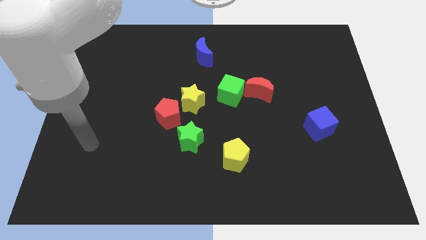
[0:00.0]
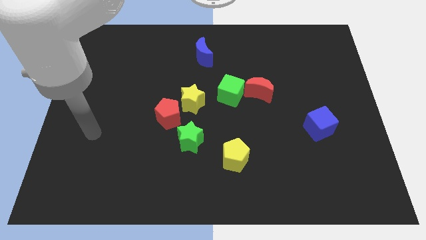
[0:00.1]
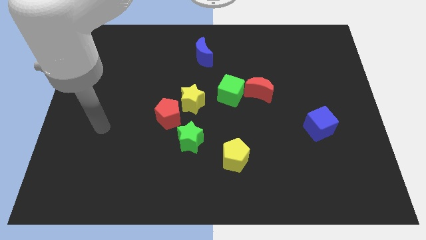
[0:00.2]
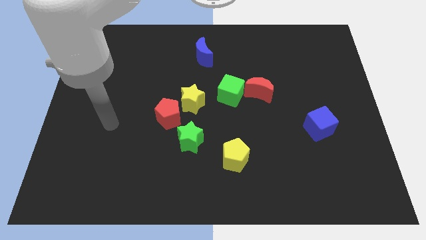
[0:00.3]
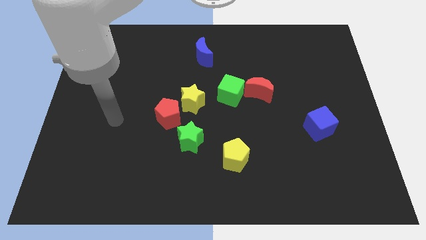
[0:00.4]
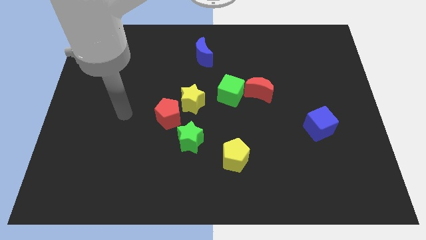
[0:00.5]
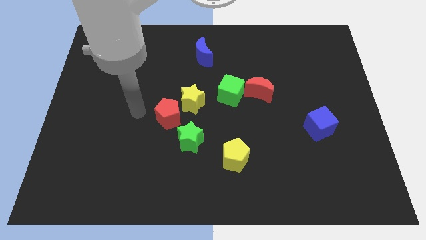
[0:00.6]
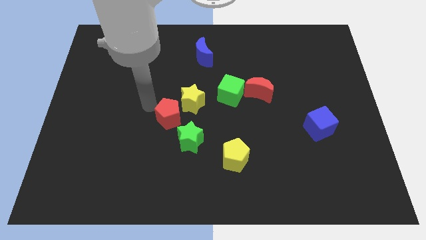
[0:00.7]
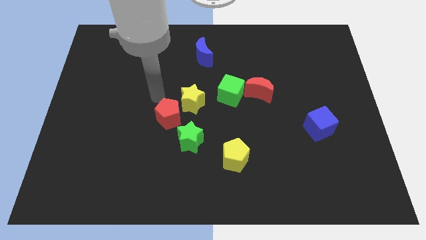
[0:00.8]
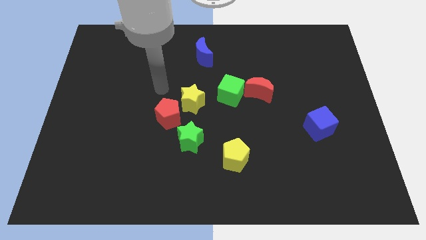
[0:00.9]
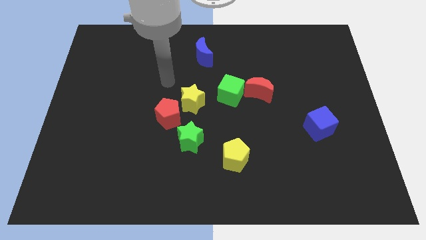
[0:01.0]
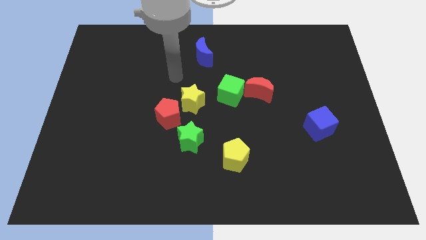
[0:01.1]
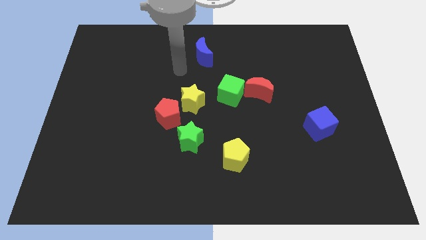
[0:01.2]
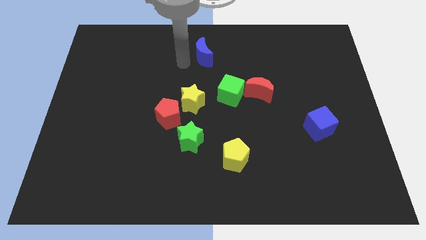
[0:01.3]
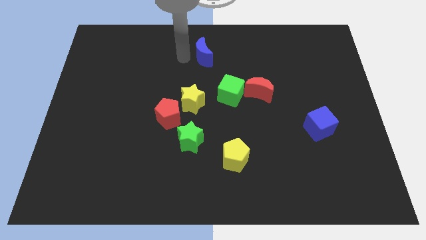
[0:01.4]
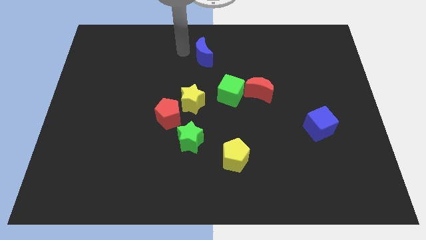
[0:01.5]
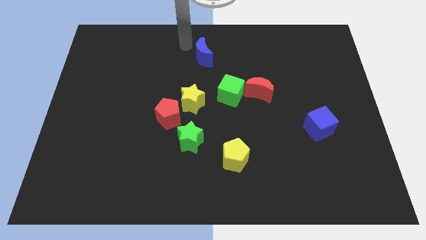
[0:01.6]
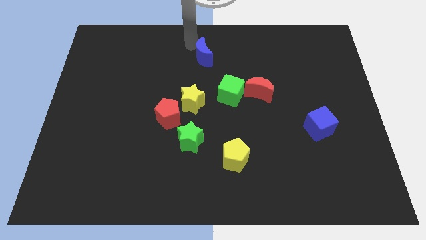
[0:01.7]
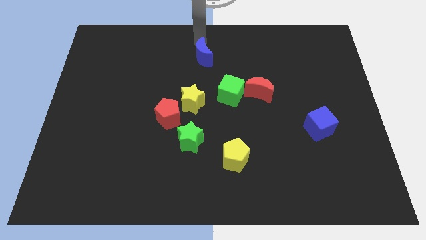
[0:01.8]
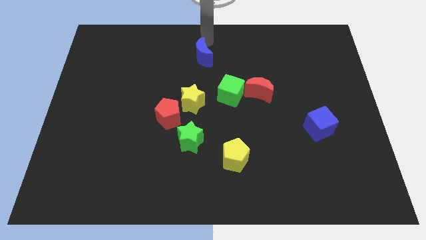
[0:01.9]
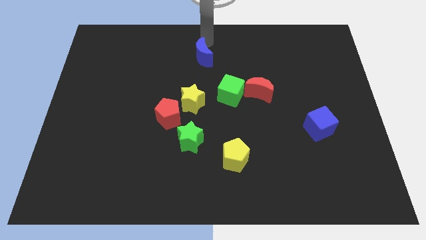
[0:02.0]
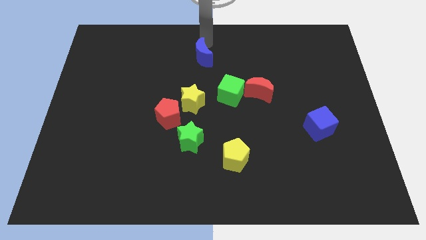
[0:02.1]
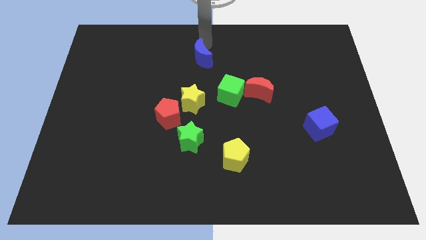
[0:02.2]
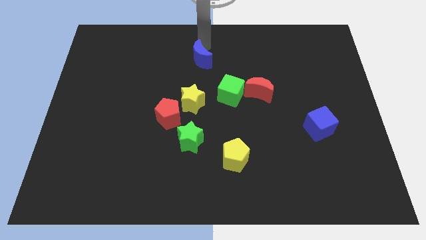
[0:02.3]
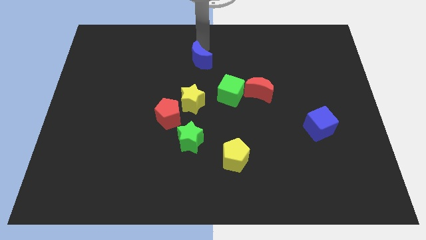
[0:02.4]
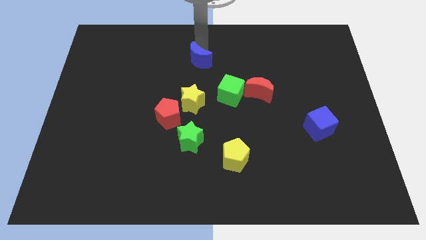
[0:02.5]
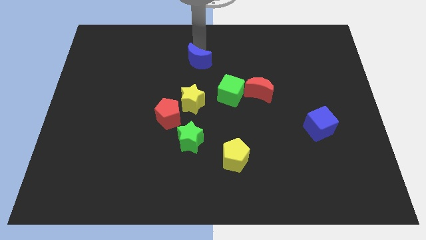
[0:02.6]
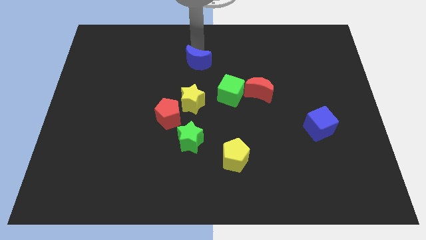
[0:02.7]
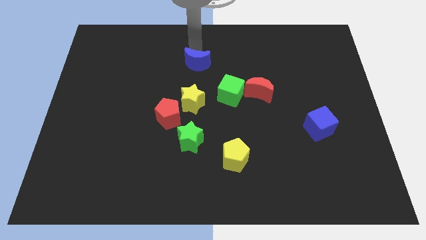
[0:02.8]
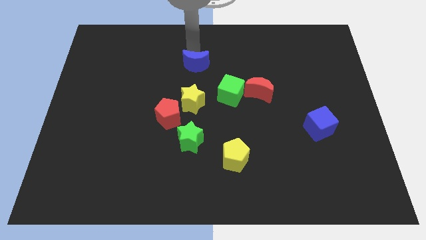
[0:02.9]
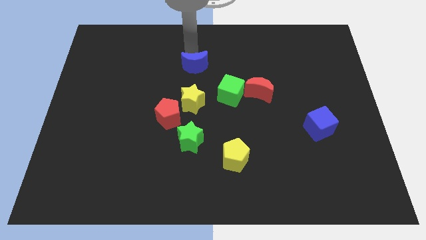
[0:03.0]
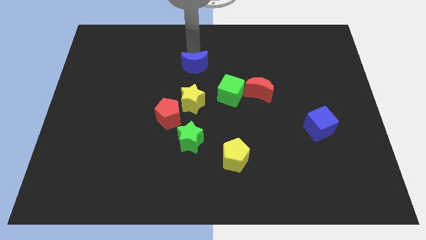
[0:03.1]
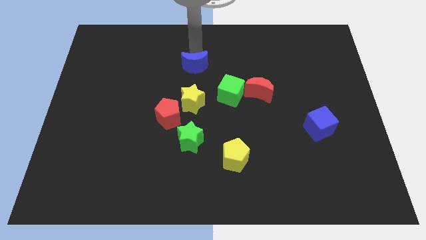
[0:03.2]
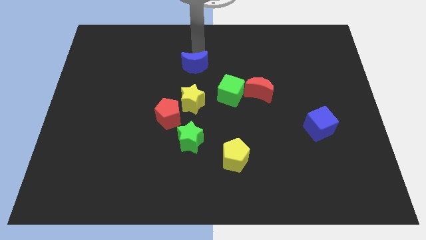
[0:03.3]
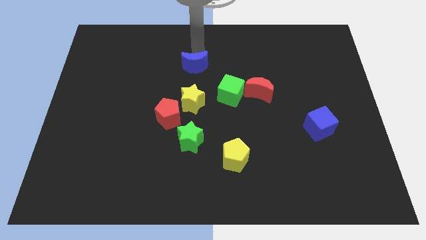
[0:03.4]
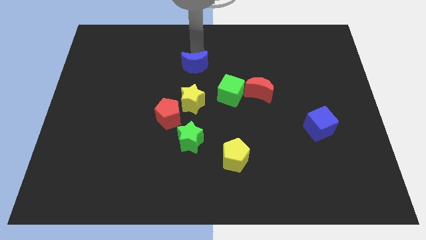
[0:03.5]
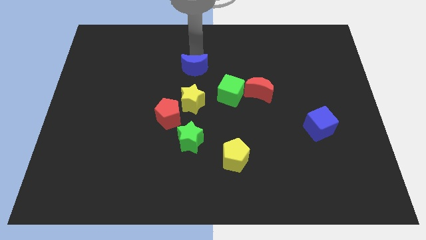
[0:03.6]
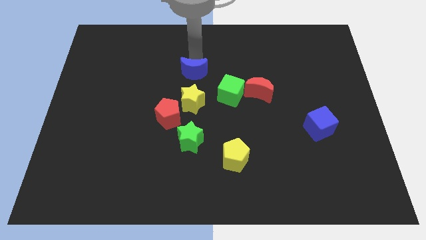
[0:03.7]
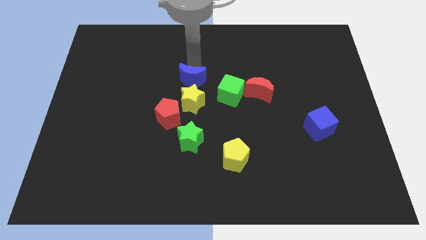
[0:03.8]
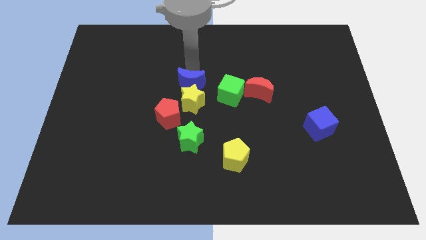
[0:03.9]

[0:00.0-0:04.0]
put the blue moon next to the yellow star

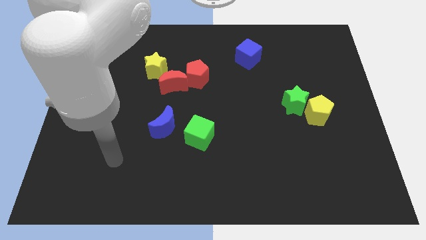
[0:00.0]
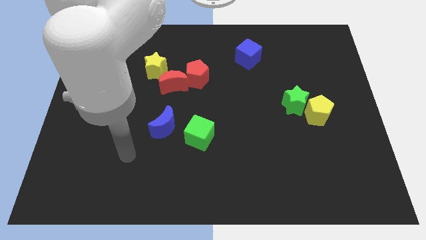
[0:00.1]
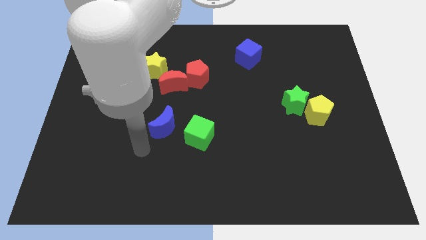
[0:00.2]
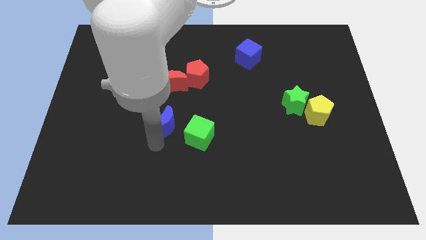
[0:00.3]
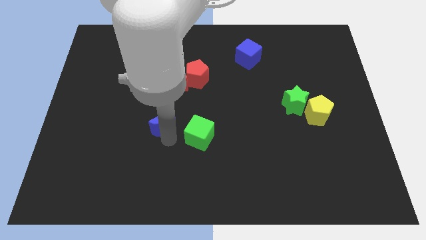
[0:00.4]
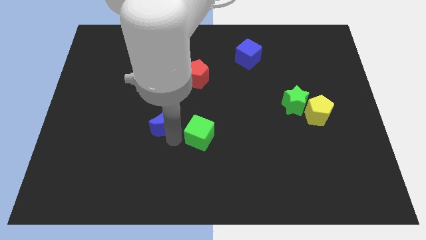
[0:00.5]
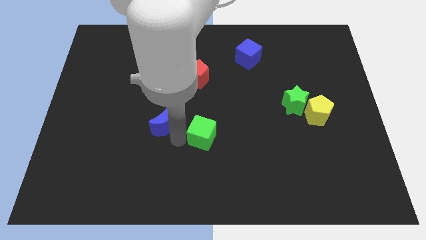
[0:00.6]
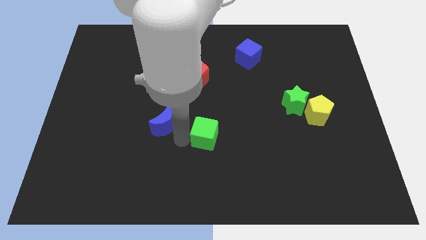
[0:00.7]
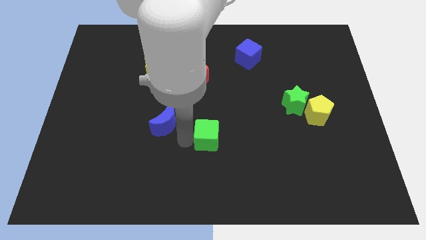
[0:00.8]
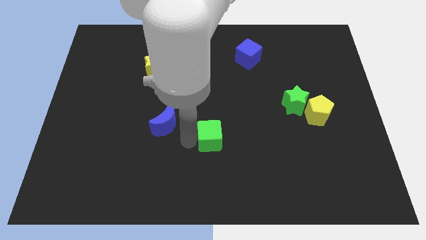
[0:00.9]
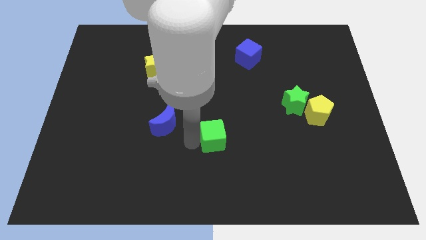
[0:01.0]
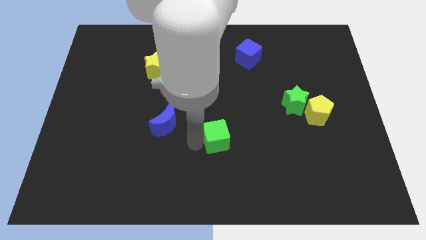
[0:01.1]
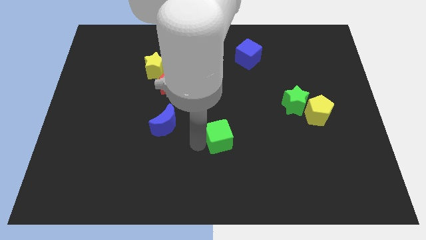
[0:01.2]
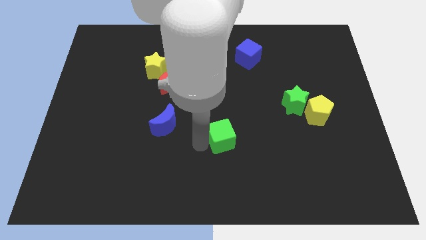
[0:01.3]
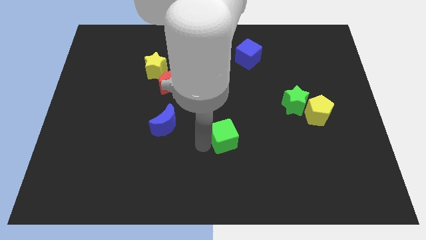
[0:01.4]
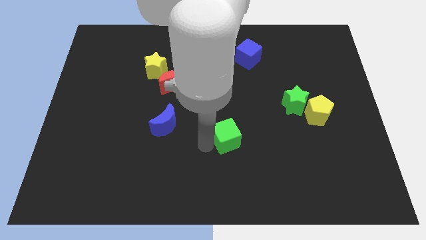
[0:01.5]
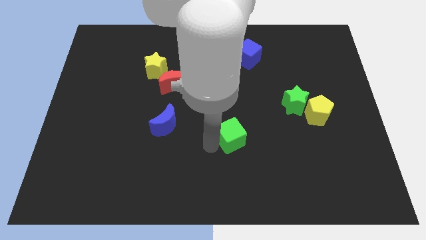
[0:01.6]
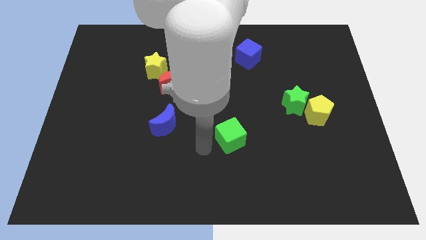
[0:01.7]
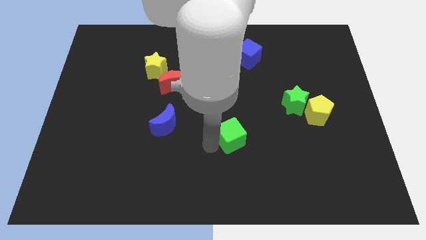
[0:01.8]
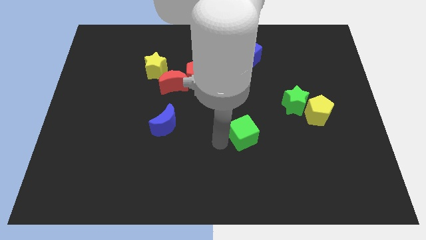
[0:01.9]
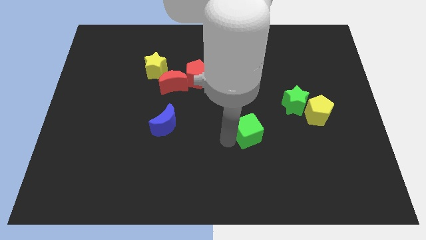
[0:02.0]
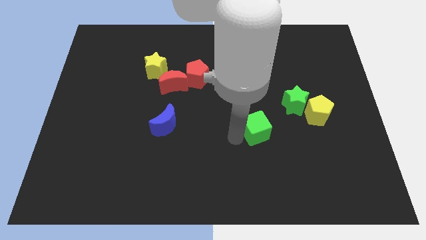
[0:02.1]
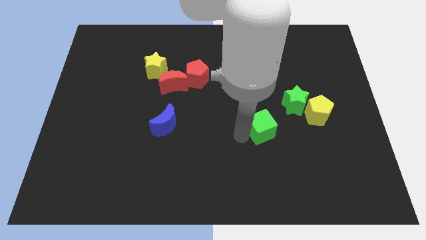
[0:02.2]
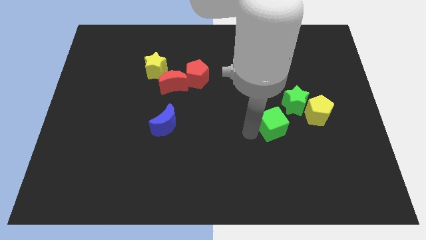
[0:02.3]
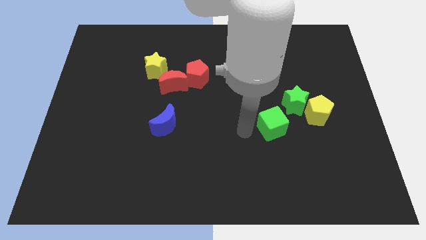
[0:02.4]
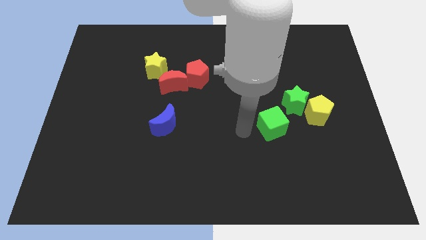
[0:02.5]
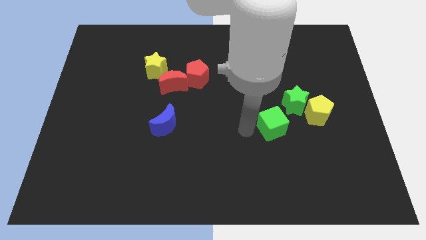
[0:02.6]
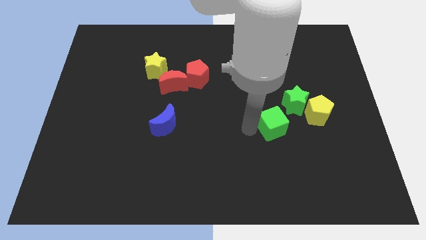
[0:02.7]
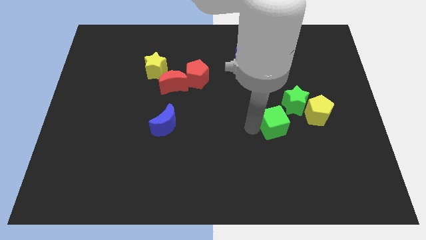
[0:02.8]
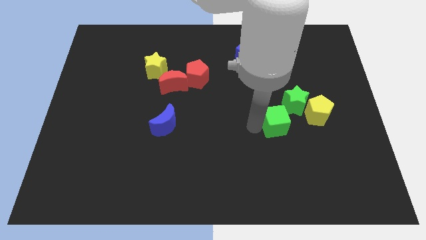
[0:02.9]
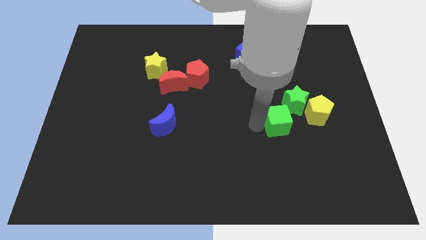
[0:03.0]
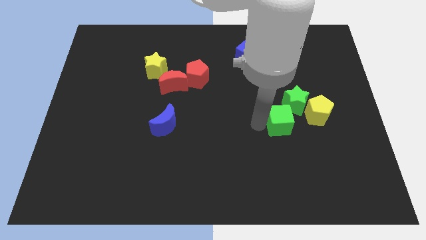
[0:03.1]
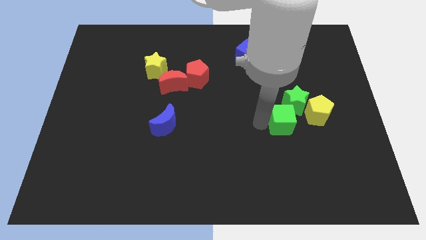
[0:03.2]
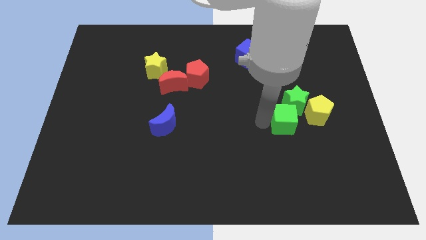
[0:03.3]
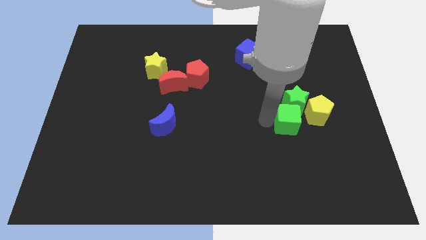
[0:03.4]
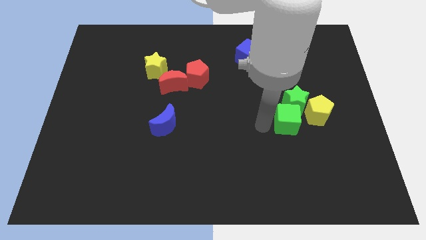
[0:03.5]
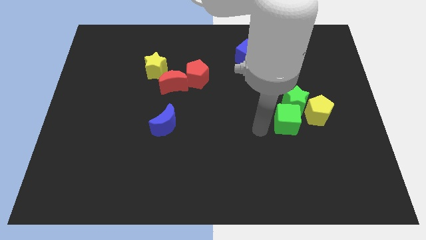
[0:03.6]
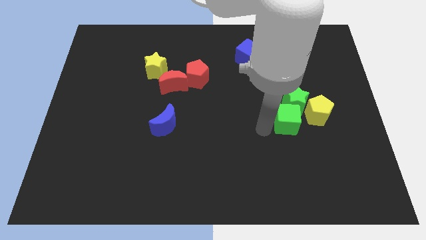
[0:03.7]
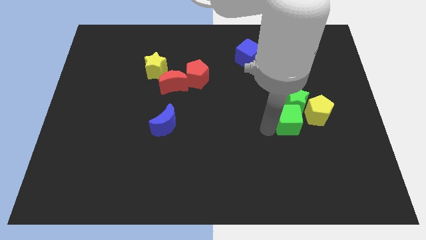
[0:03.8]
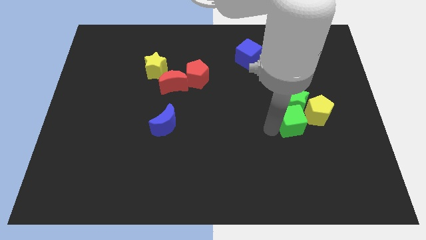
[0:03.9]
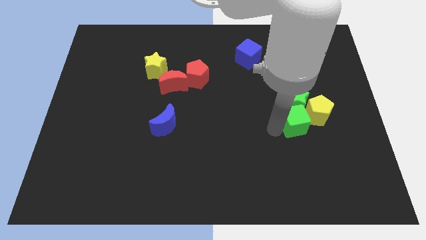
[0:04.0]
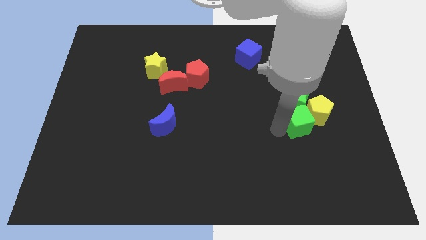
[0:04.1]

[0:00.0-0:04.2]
put the green cube towards the yellow pentagon
